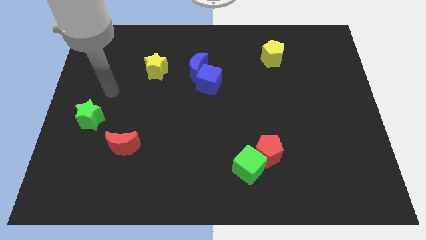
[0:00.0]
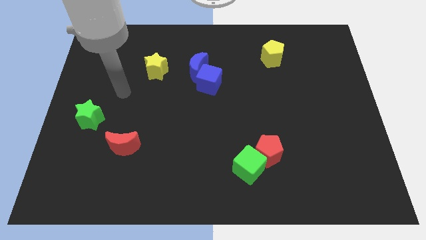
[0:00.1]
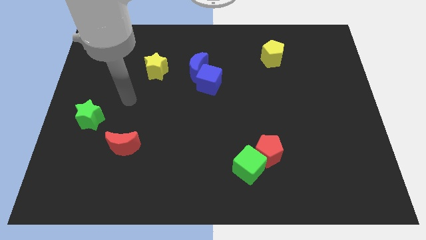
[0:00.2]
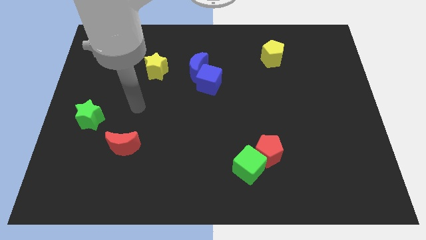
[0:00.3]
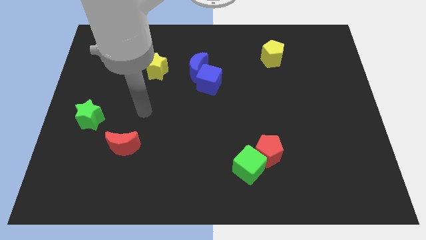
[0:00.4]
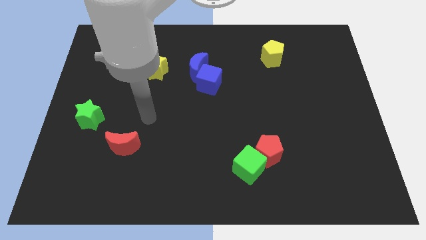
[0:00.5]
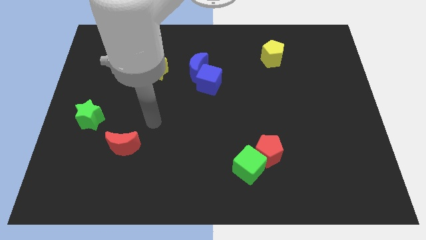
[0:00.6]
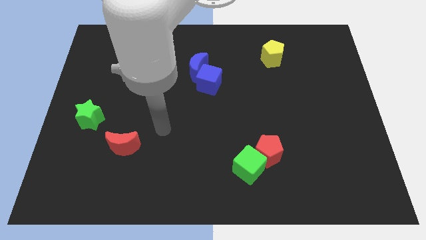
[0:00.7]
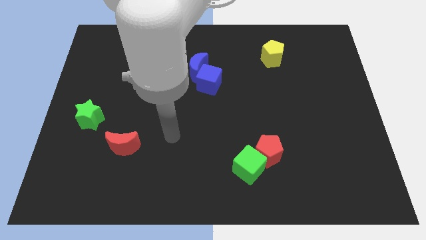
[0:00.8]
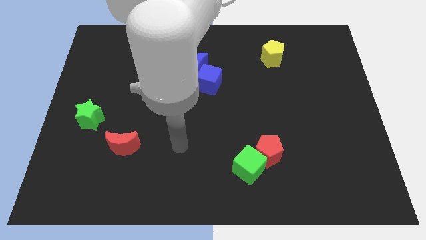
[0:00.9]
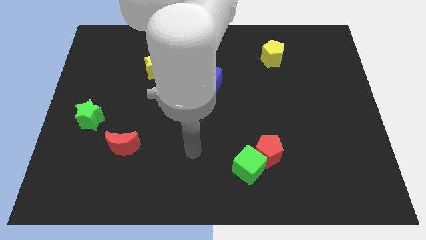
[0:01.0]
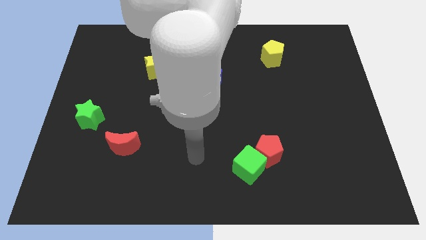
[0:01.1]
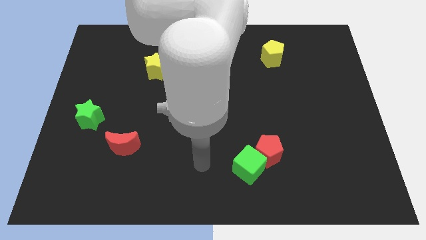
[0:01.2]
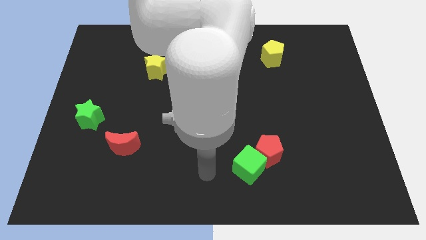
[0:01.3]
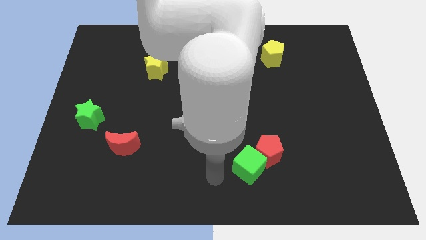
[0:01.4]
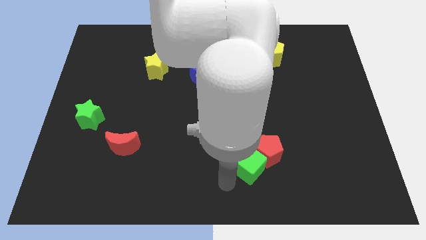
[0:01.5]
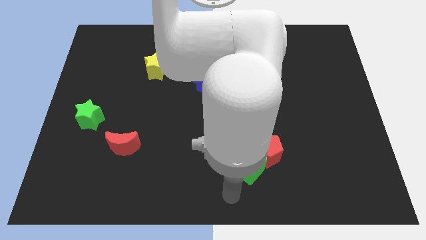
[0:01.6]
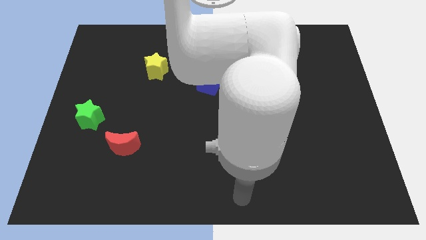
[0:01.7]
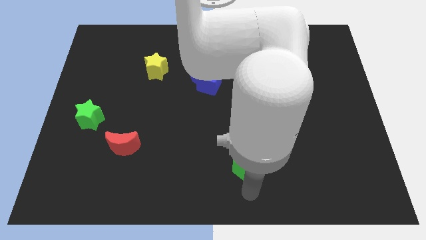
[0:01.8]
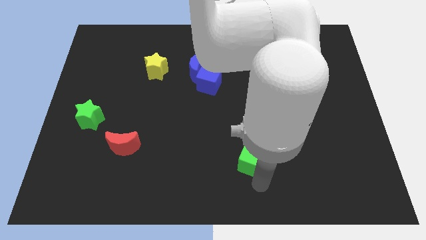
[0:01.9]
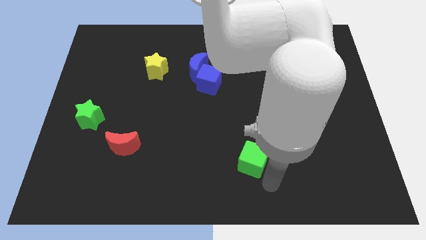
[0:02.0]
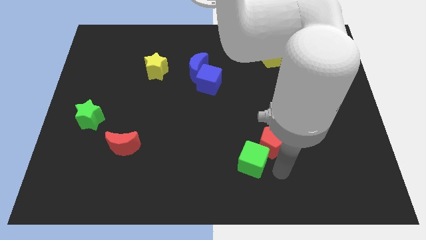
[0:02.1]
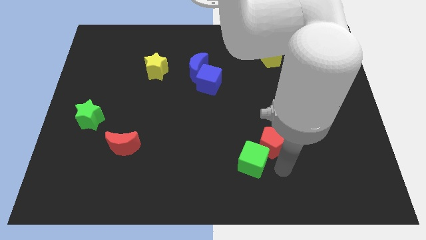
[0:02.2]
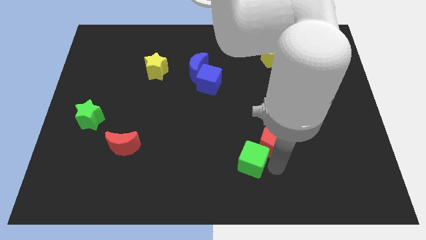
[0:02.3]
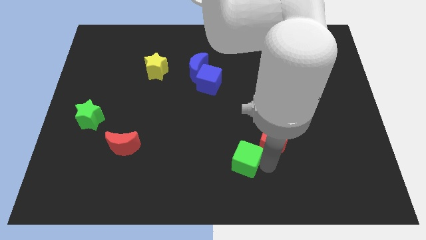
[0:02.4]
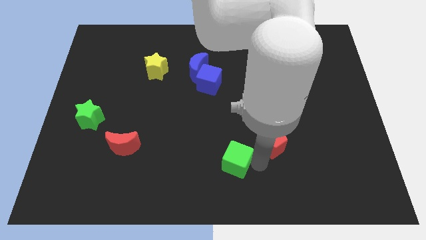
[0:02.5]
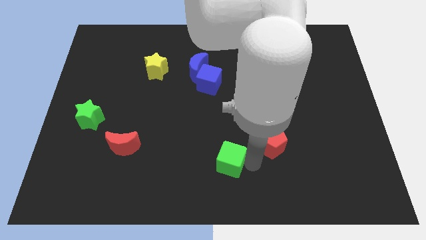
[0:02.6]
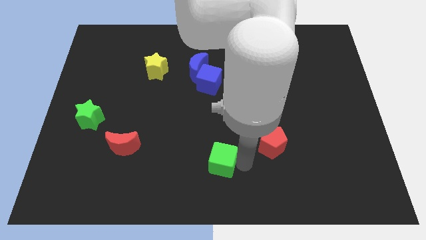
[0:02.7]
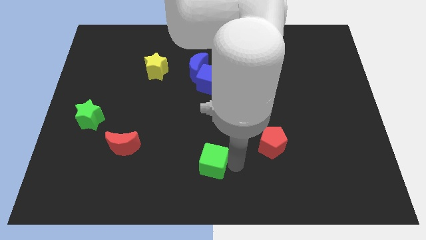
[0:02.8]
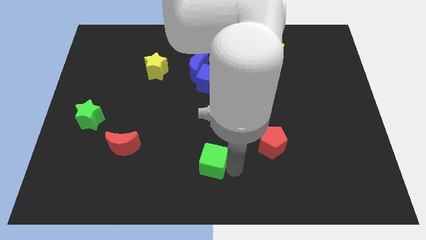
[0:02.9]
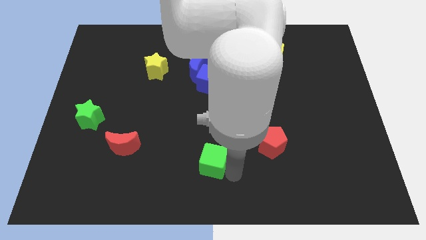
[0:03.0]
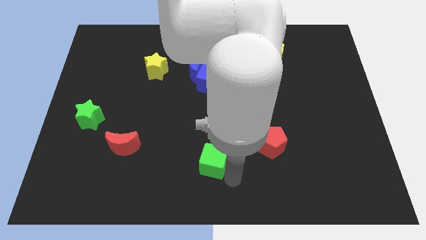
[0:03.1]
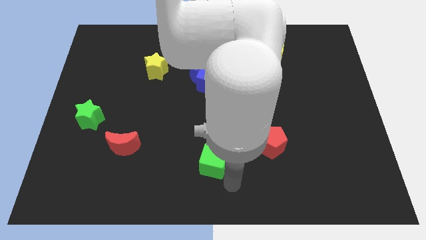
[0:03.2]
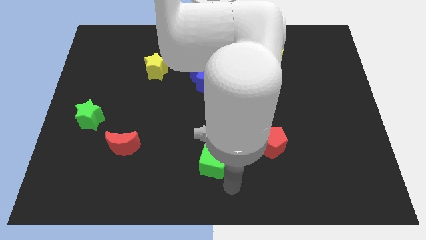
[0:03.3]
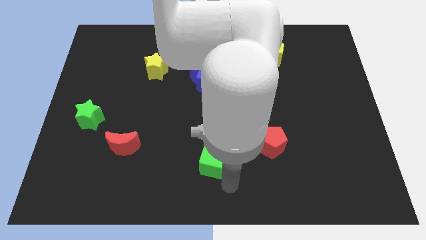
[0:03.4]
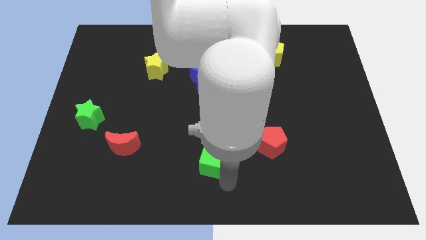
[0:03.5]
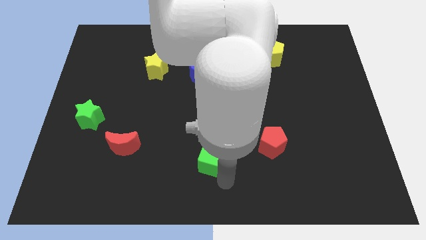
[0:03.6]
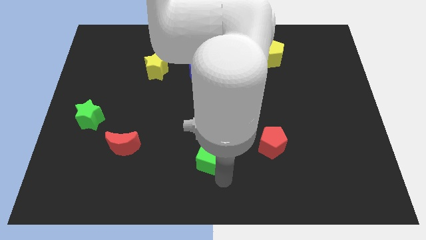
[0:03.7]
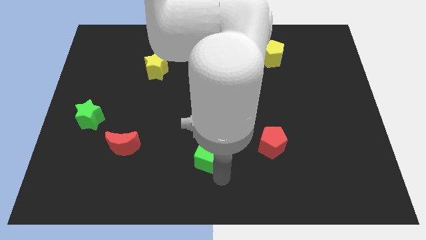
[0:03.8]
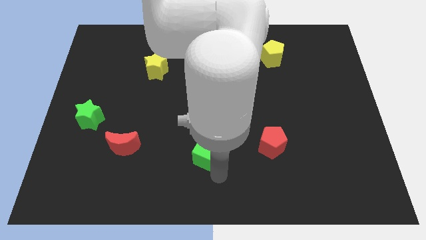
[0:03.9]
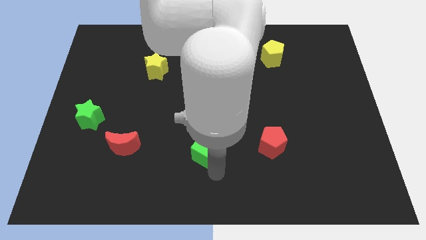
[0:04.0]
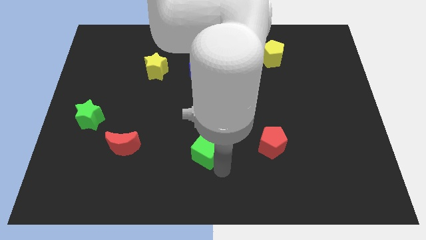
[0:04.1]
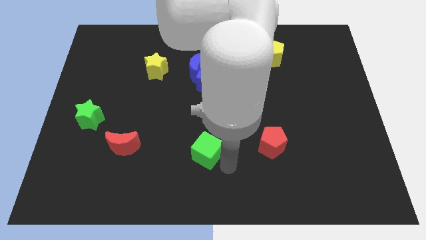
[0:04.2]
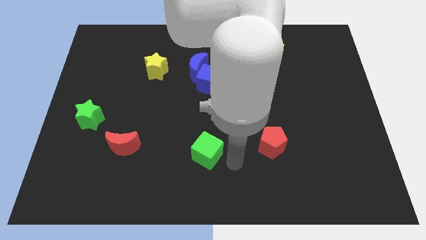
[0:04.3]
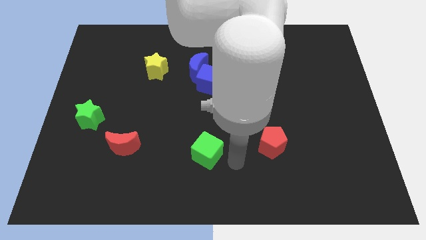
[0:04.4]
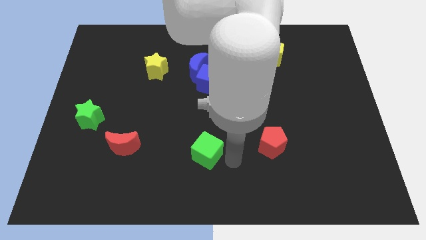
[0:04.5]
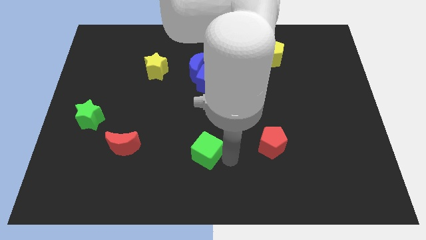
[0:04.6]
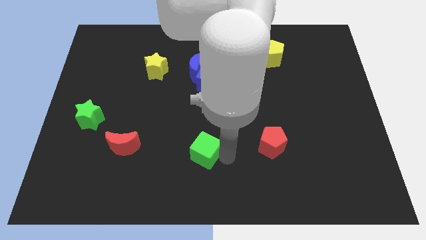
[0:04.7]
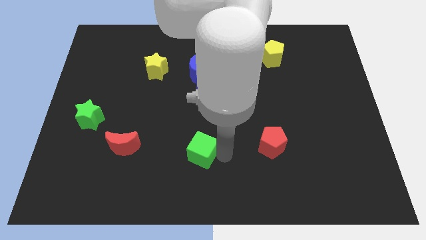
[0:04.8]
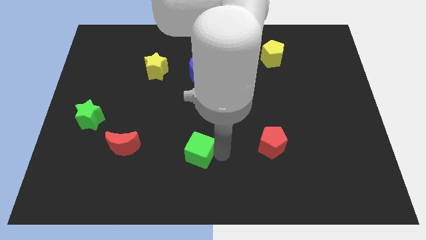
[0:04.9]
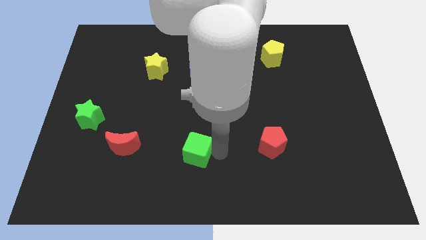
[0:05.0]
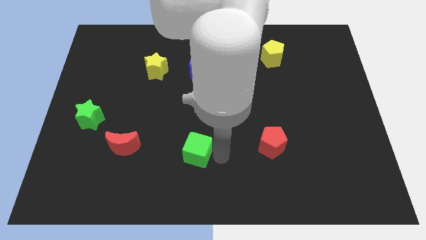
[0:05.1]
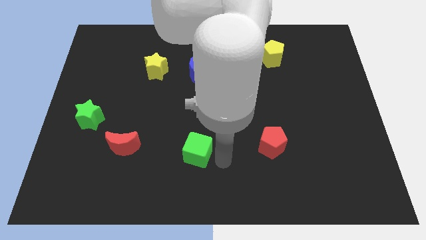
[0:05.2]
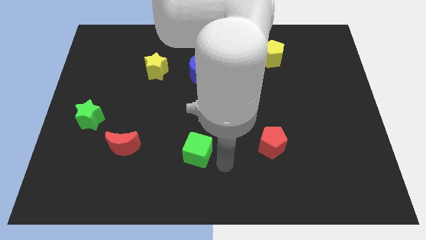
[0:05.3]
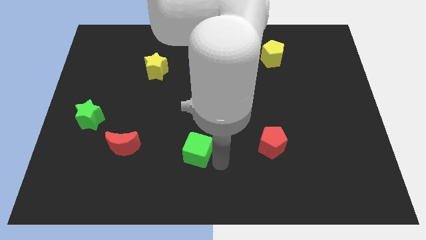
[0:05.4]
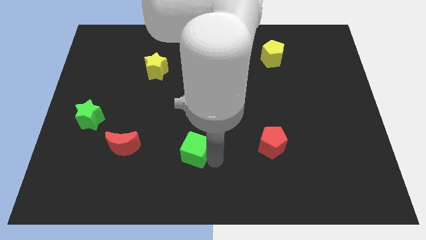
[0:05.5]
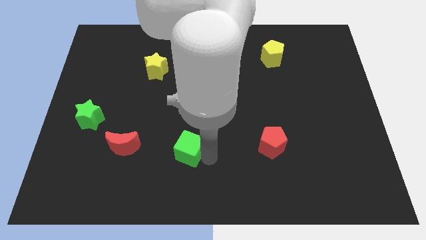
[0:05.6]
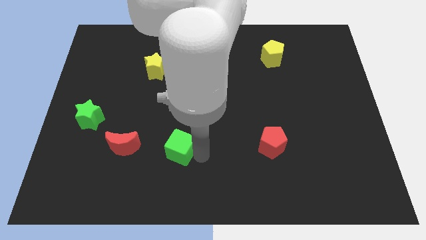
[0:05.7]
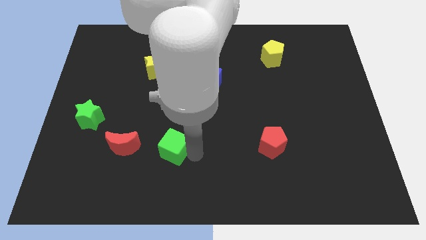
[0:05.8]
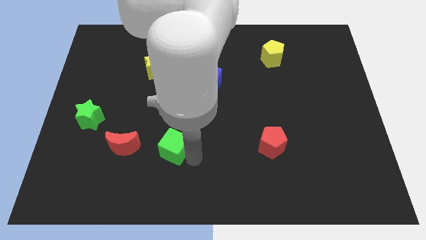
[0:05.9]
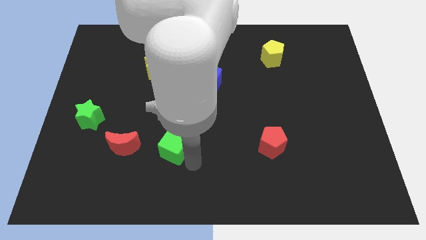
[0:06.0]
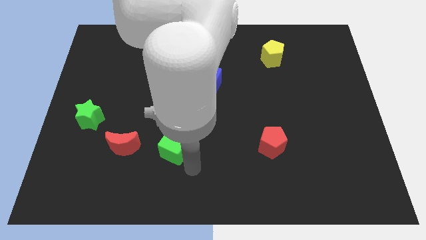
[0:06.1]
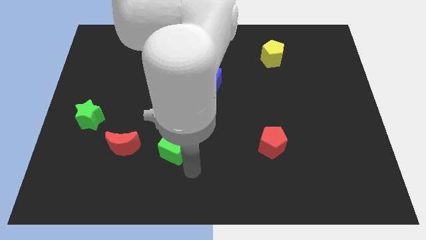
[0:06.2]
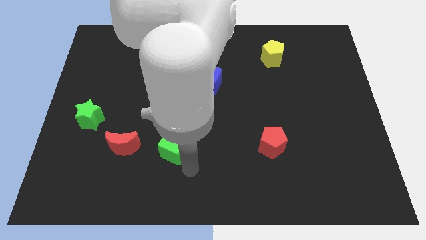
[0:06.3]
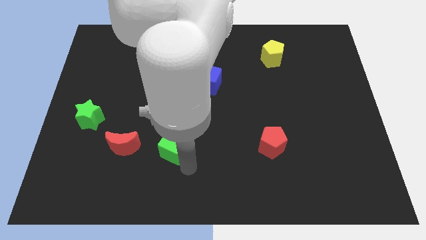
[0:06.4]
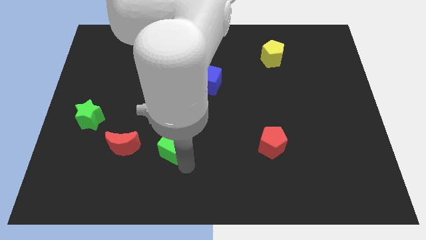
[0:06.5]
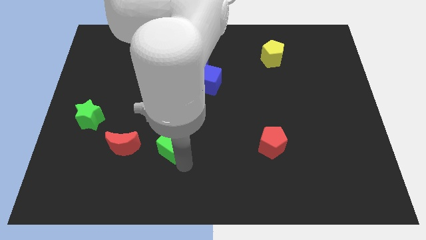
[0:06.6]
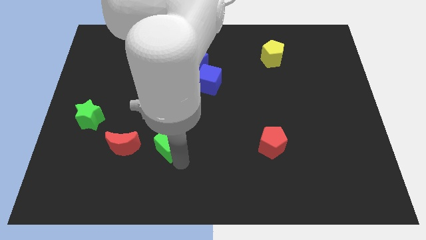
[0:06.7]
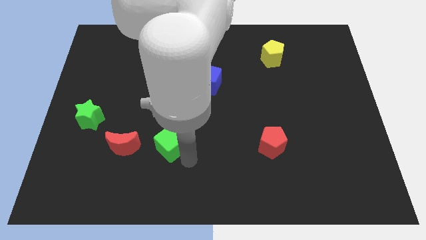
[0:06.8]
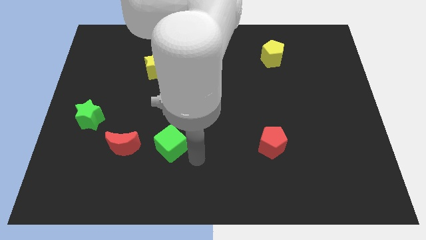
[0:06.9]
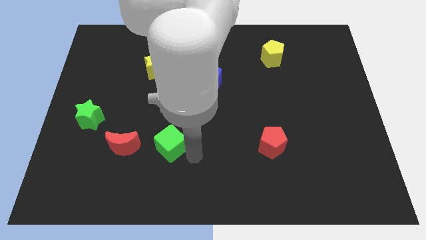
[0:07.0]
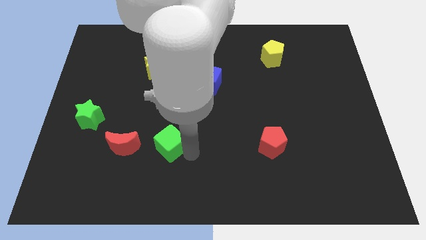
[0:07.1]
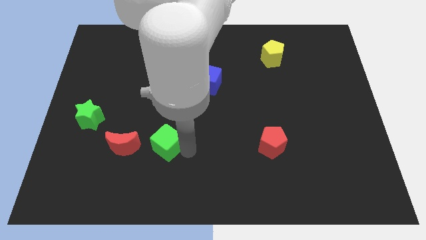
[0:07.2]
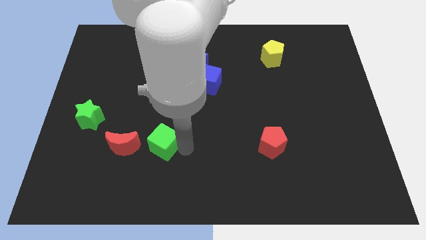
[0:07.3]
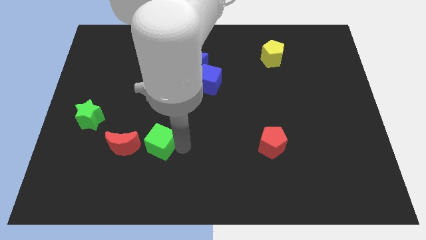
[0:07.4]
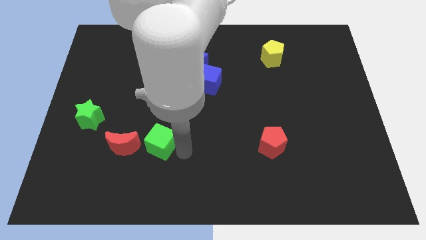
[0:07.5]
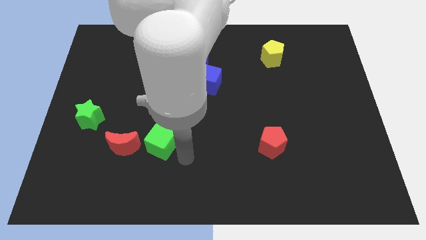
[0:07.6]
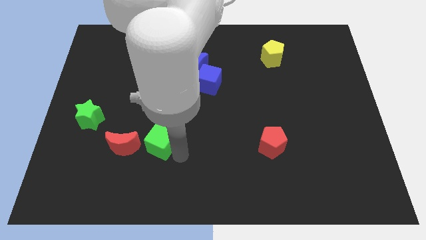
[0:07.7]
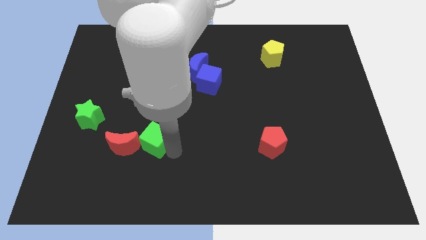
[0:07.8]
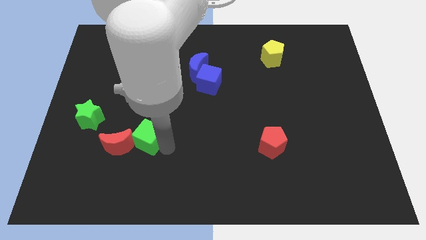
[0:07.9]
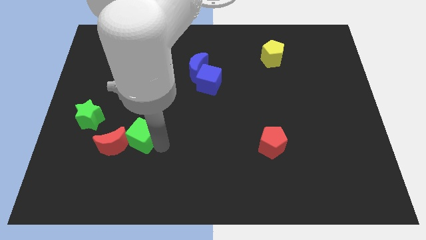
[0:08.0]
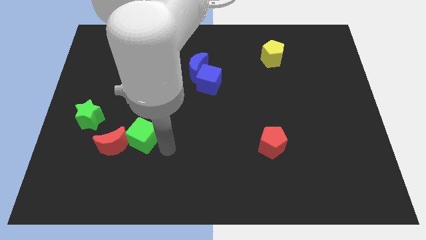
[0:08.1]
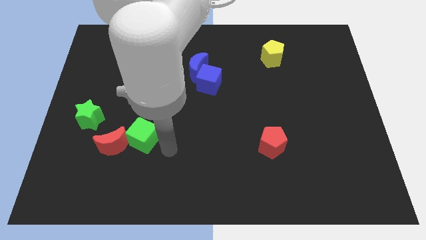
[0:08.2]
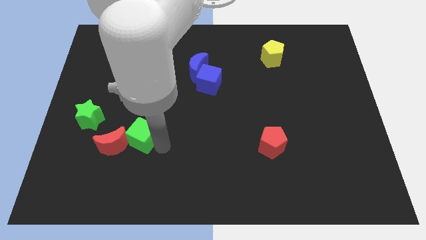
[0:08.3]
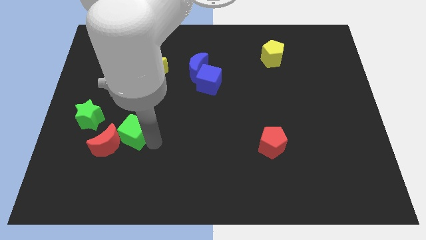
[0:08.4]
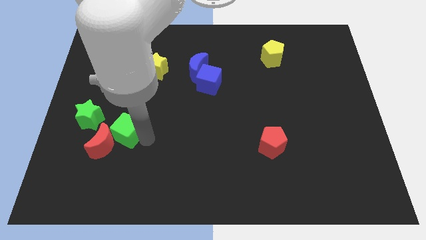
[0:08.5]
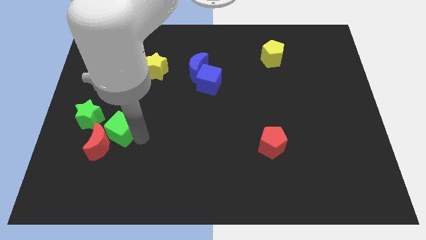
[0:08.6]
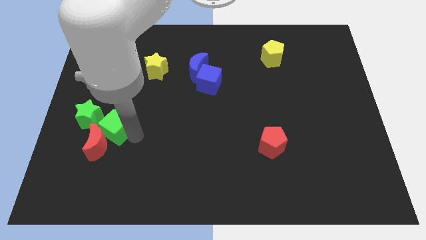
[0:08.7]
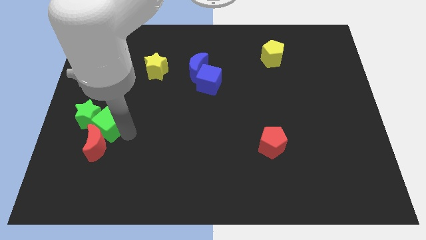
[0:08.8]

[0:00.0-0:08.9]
move the green cube close to the green star
